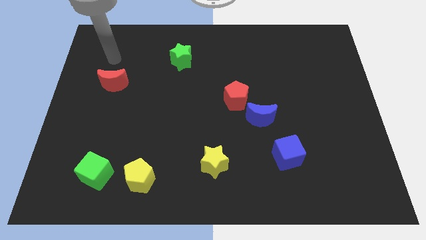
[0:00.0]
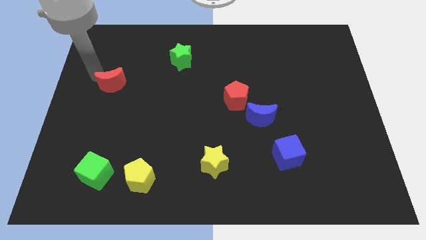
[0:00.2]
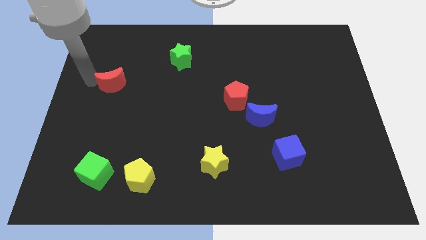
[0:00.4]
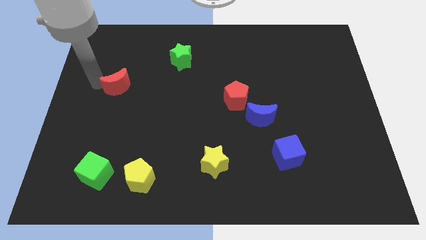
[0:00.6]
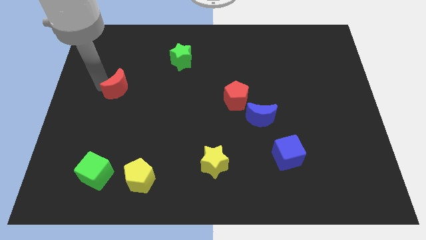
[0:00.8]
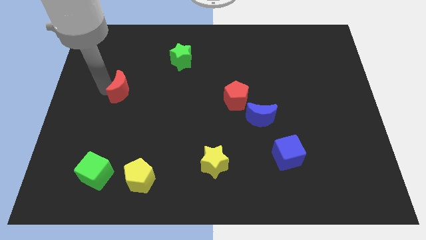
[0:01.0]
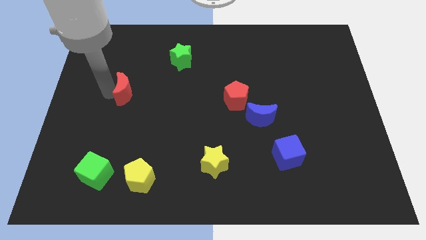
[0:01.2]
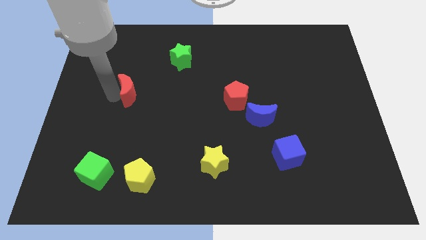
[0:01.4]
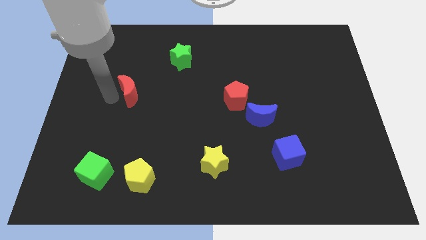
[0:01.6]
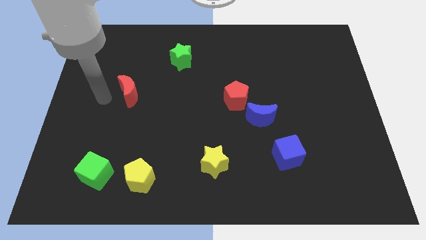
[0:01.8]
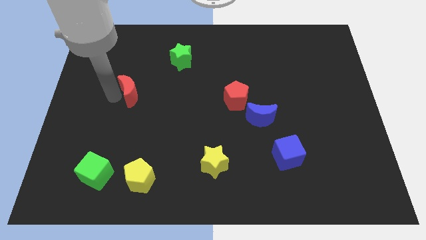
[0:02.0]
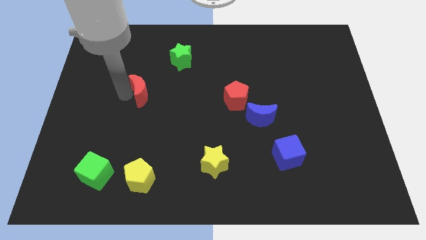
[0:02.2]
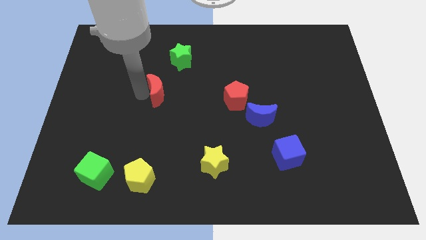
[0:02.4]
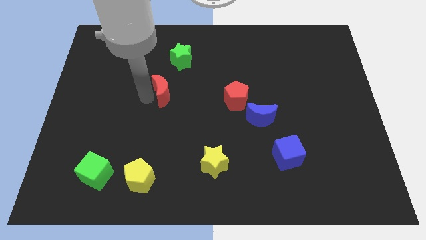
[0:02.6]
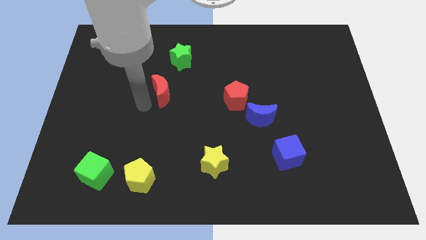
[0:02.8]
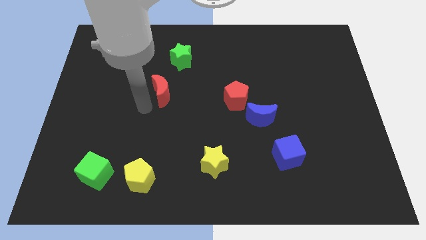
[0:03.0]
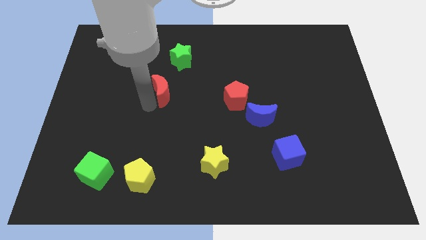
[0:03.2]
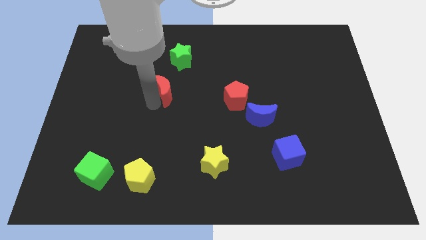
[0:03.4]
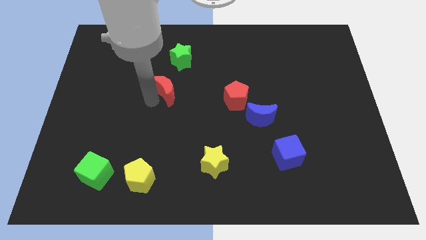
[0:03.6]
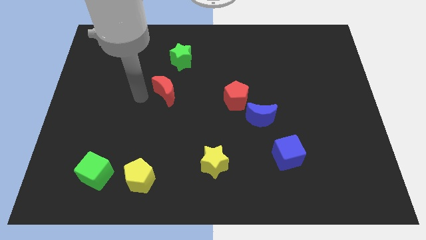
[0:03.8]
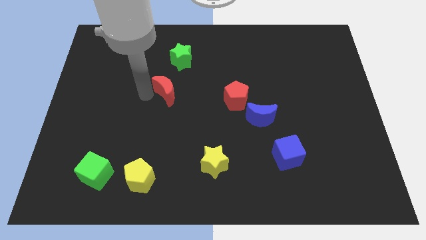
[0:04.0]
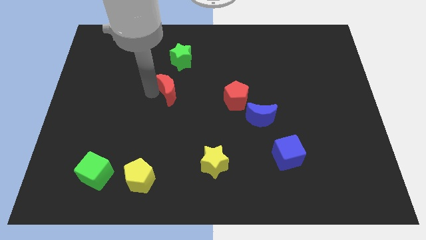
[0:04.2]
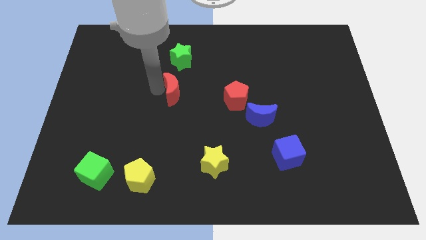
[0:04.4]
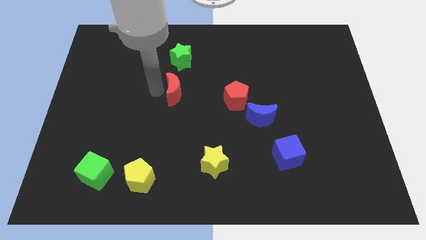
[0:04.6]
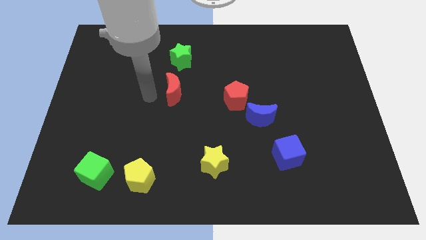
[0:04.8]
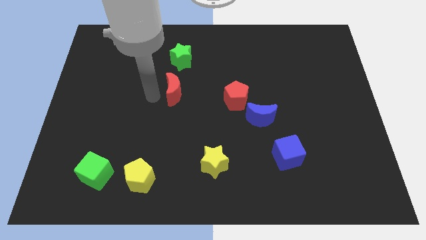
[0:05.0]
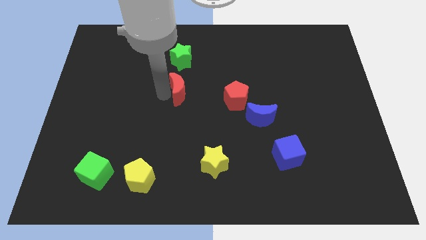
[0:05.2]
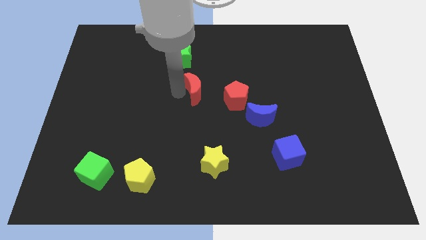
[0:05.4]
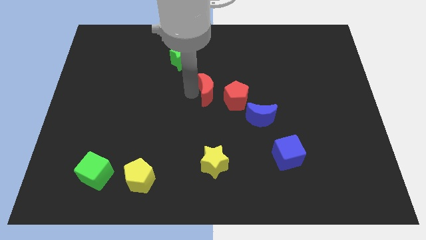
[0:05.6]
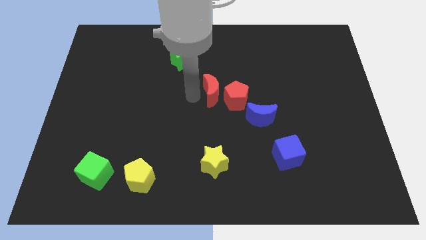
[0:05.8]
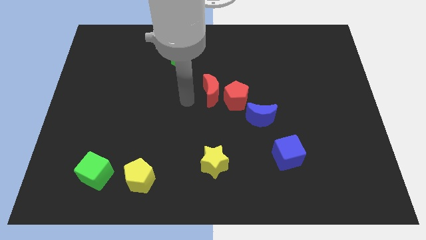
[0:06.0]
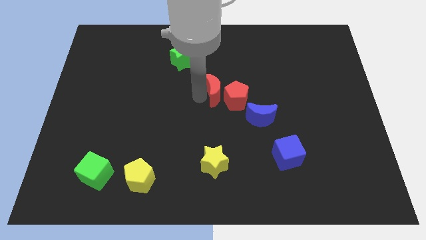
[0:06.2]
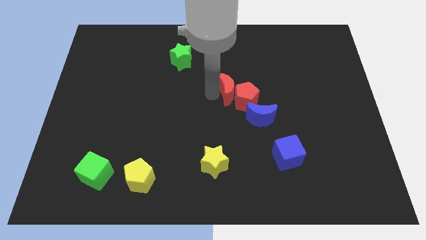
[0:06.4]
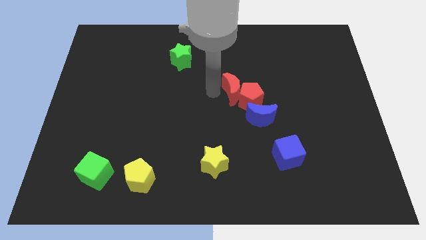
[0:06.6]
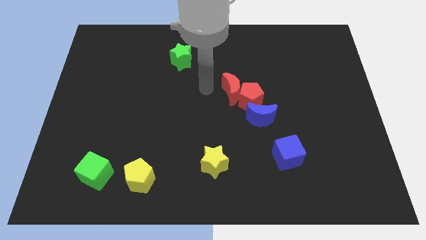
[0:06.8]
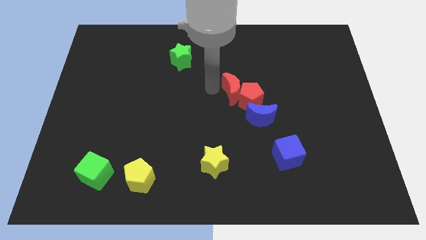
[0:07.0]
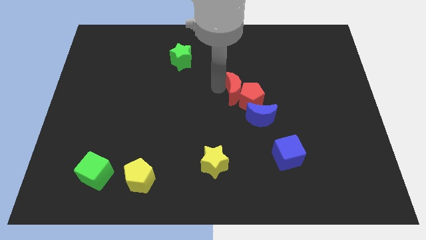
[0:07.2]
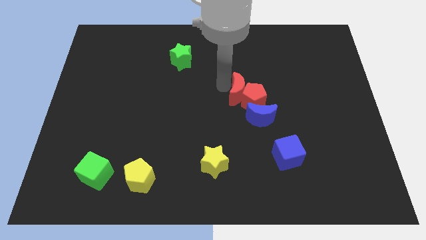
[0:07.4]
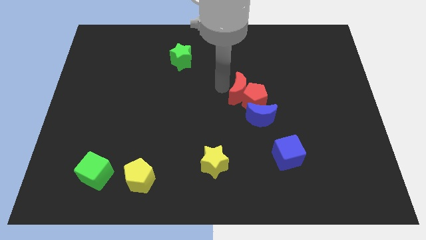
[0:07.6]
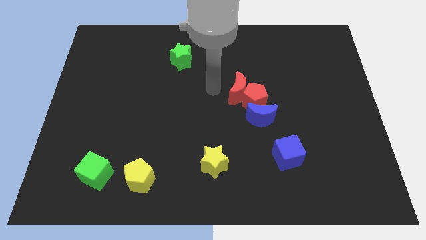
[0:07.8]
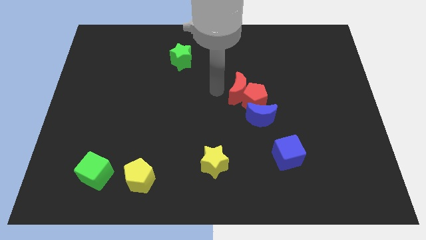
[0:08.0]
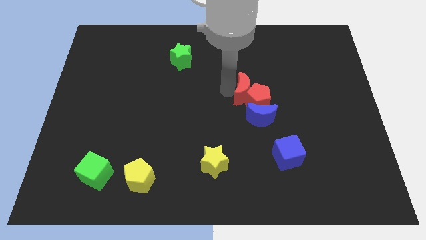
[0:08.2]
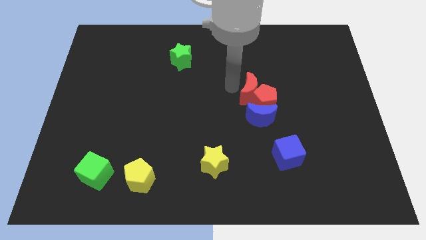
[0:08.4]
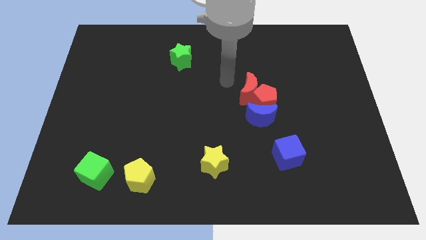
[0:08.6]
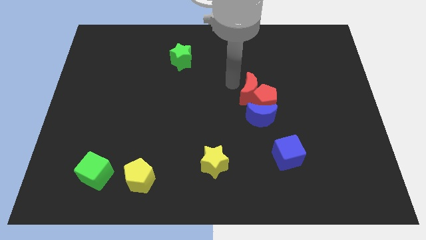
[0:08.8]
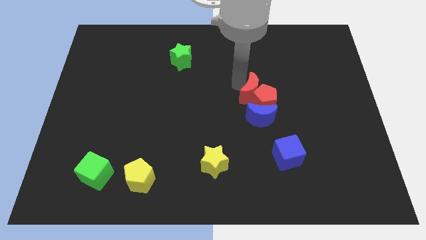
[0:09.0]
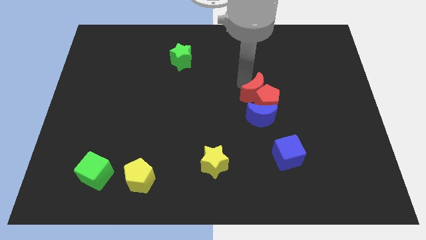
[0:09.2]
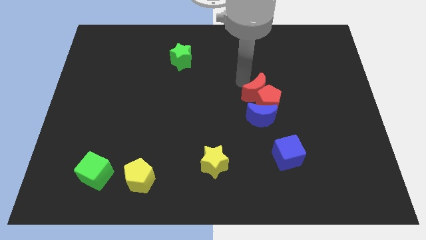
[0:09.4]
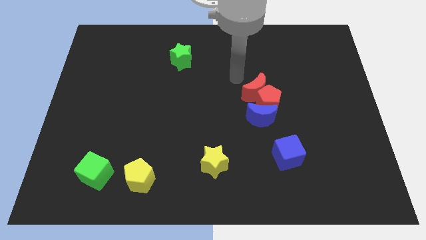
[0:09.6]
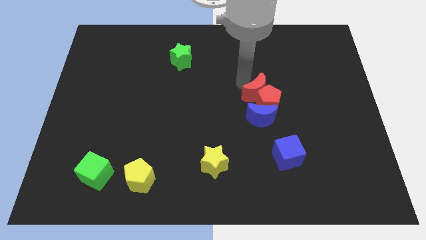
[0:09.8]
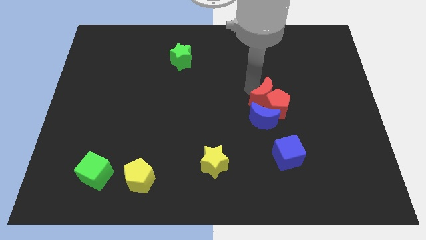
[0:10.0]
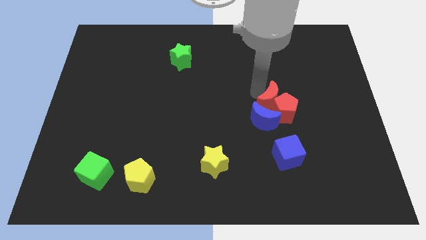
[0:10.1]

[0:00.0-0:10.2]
push the red moon above the blue cube

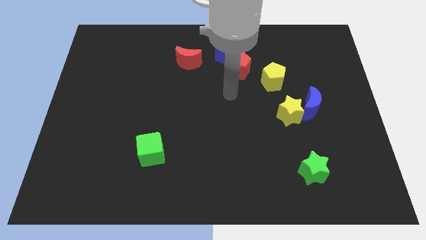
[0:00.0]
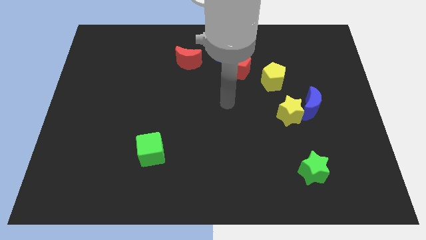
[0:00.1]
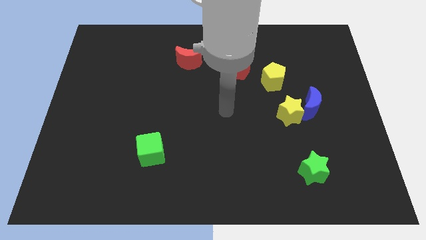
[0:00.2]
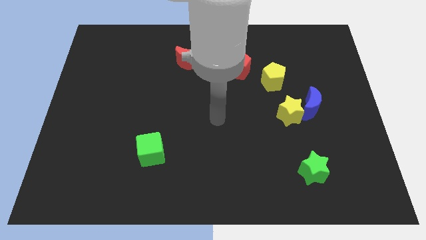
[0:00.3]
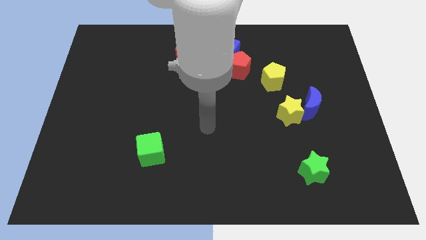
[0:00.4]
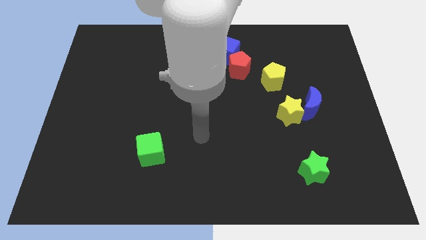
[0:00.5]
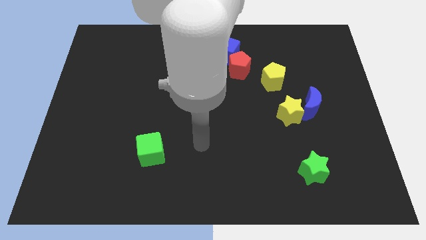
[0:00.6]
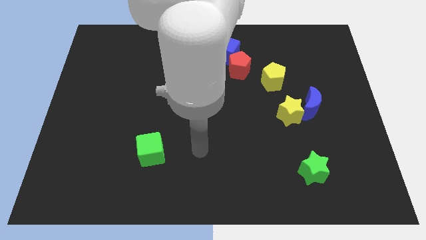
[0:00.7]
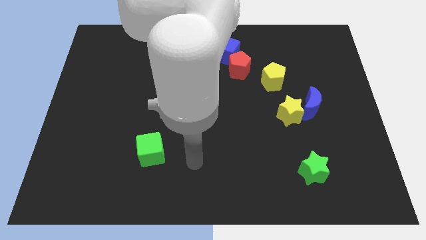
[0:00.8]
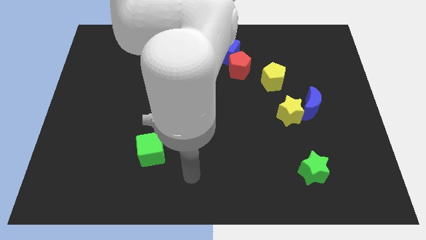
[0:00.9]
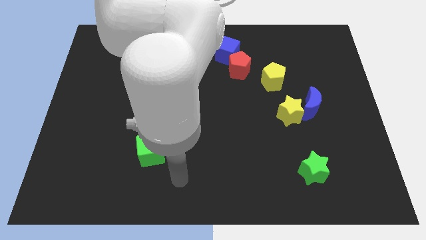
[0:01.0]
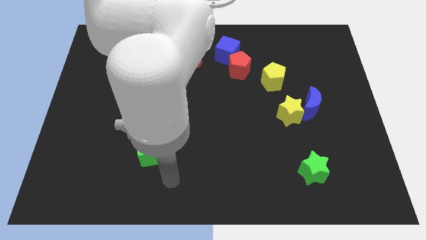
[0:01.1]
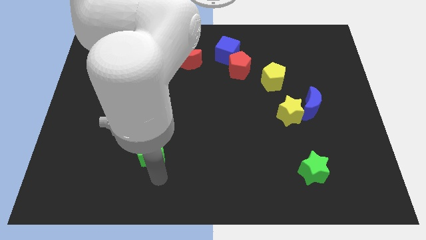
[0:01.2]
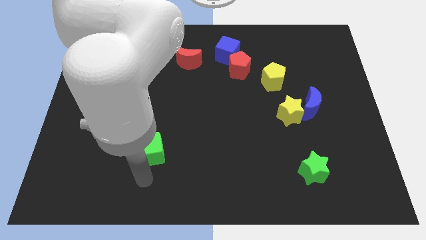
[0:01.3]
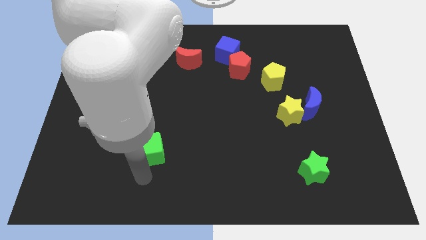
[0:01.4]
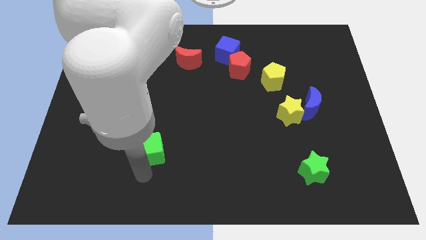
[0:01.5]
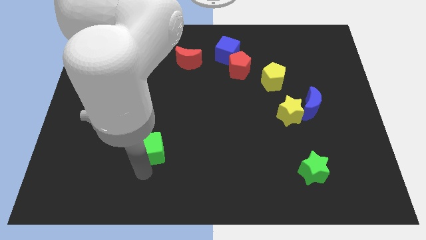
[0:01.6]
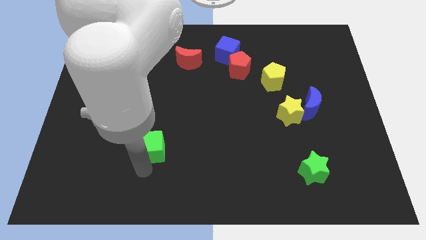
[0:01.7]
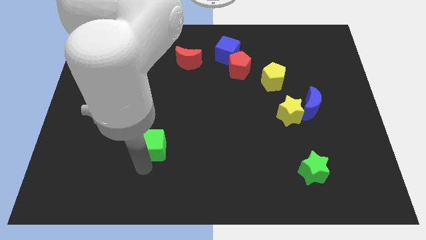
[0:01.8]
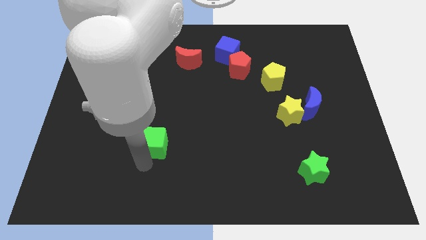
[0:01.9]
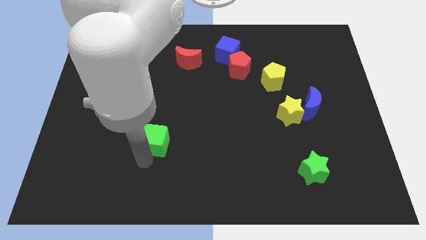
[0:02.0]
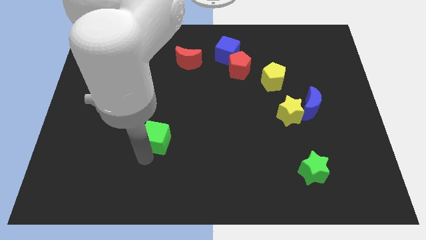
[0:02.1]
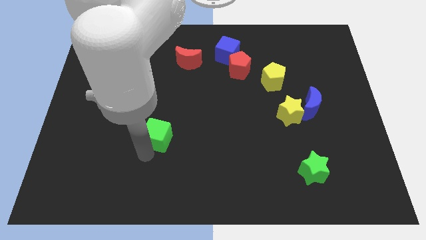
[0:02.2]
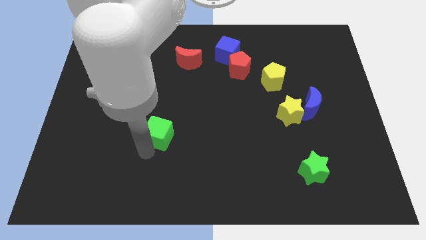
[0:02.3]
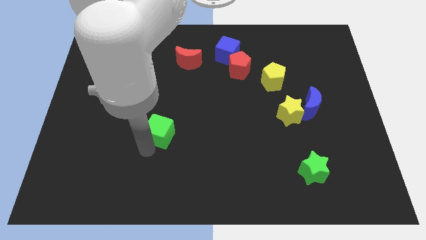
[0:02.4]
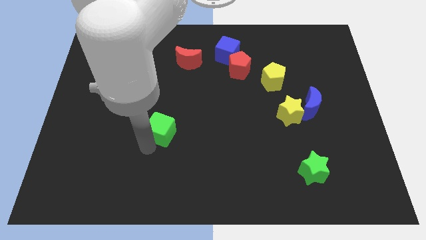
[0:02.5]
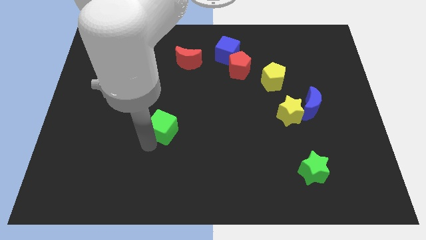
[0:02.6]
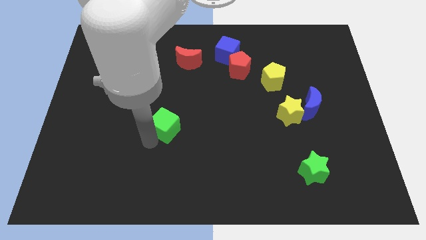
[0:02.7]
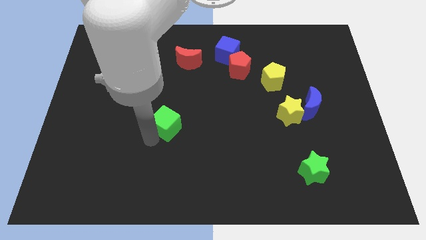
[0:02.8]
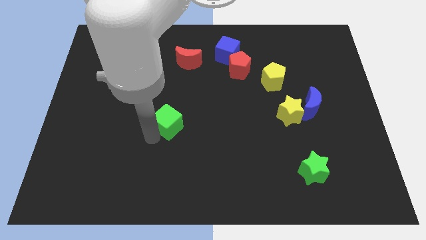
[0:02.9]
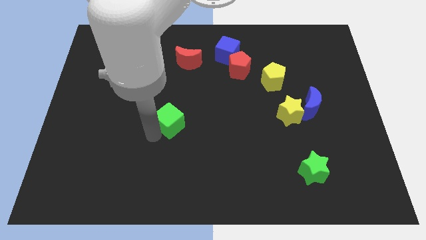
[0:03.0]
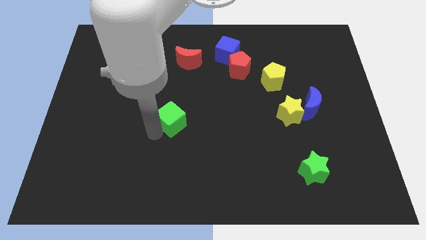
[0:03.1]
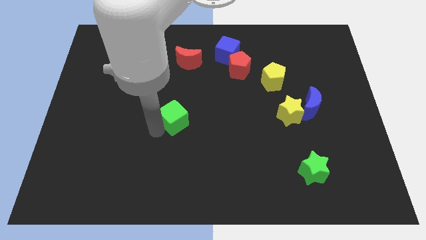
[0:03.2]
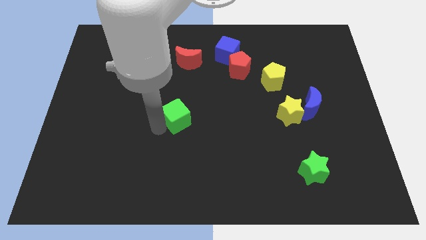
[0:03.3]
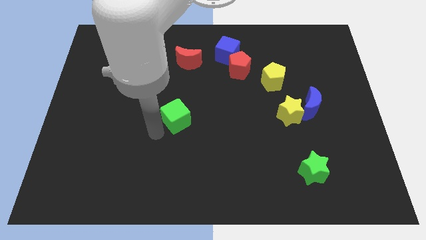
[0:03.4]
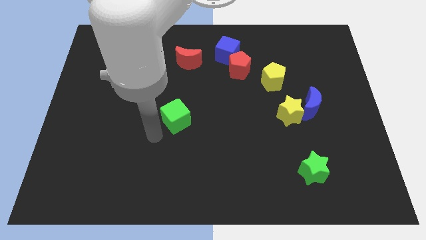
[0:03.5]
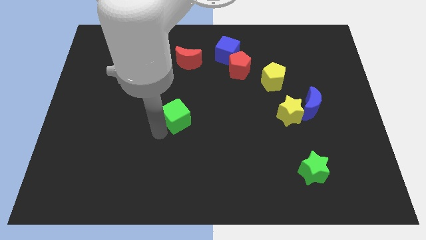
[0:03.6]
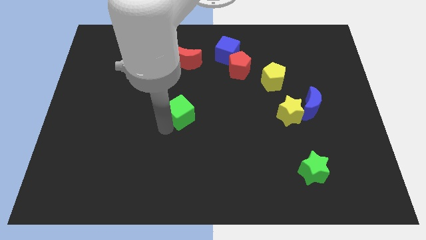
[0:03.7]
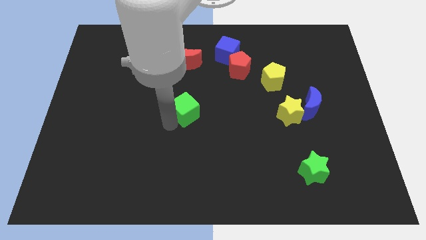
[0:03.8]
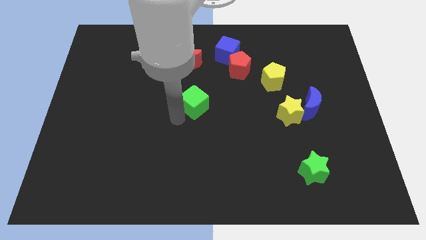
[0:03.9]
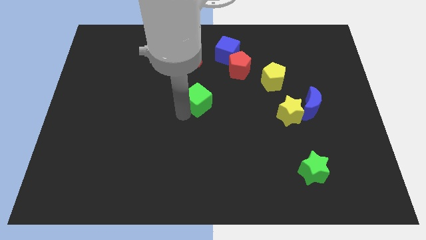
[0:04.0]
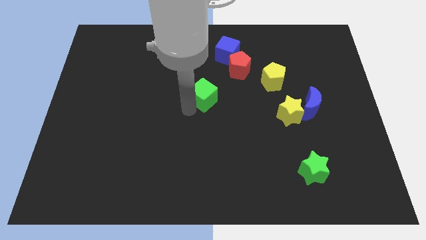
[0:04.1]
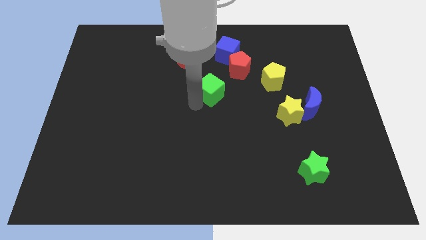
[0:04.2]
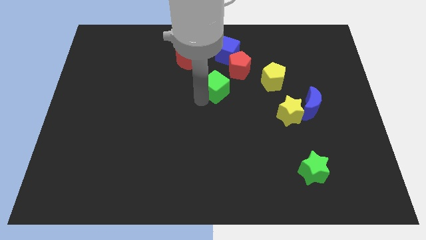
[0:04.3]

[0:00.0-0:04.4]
put the green cube left of the yellow pentagon
